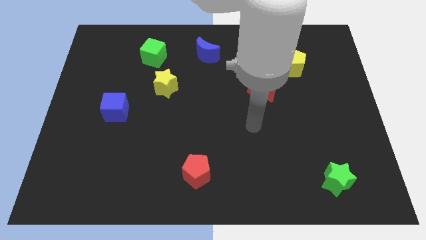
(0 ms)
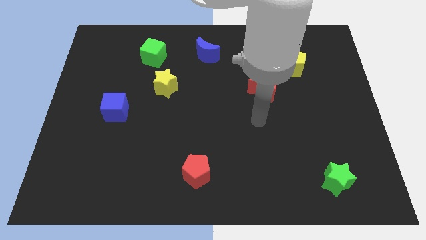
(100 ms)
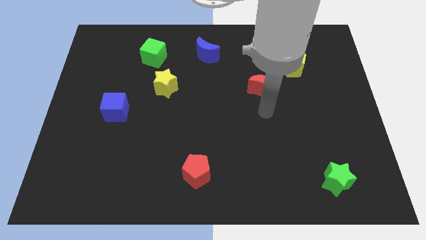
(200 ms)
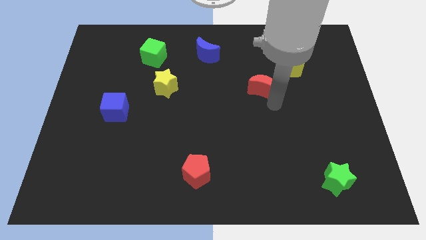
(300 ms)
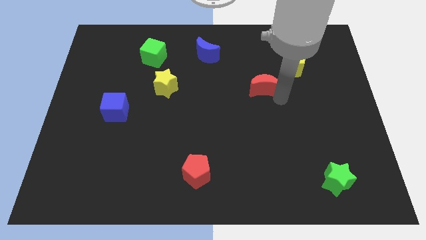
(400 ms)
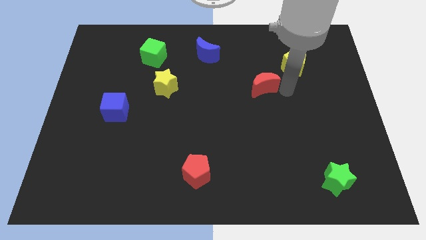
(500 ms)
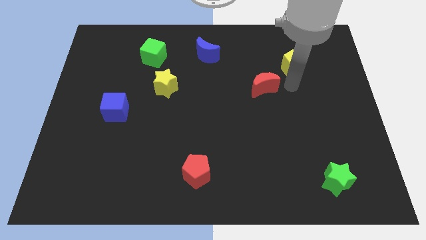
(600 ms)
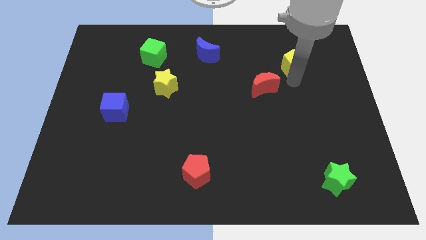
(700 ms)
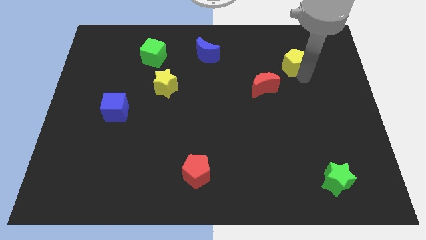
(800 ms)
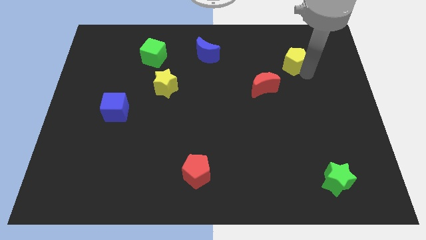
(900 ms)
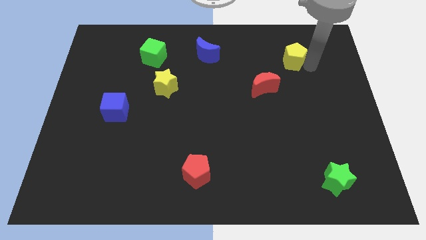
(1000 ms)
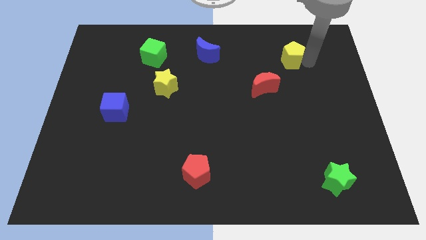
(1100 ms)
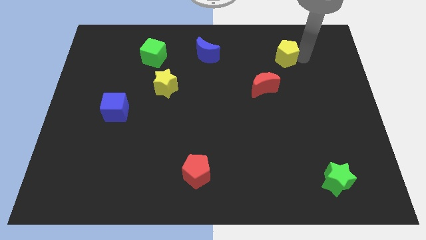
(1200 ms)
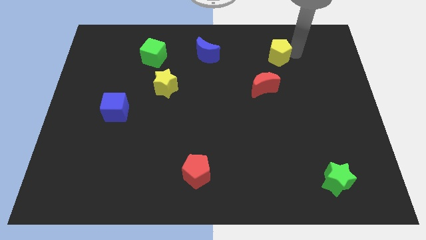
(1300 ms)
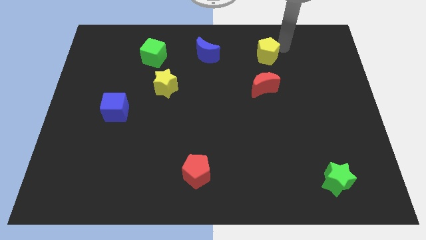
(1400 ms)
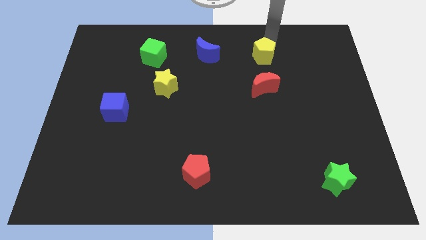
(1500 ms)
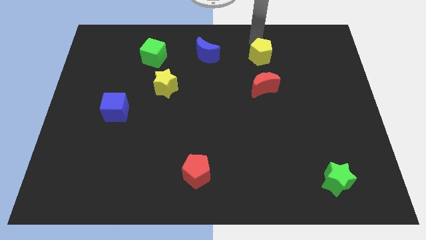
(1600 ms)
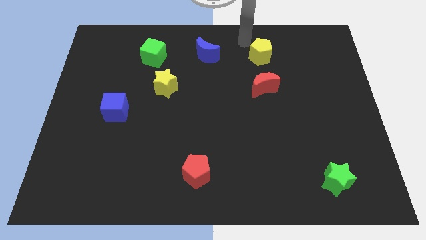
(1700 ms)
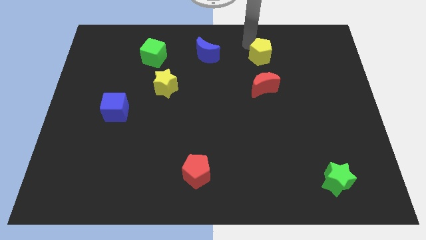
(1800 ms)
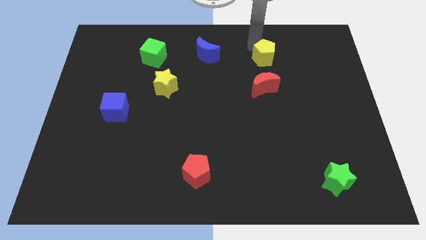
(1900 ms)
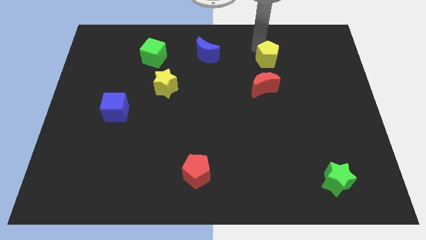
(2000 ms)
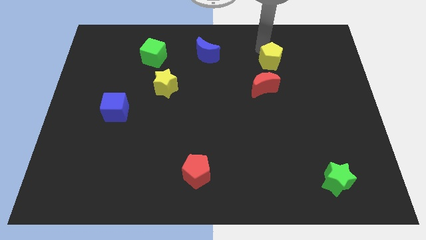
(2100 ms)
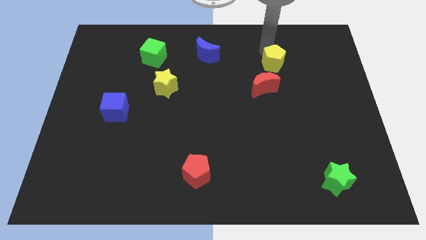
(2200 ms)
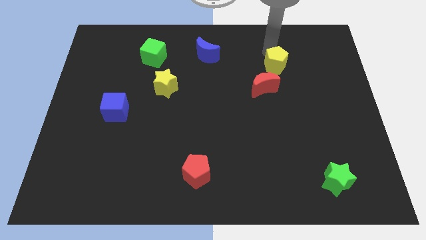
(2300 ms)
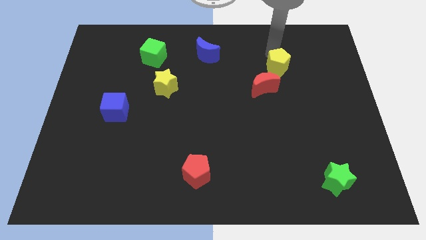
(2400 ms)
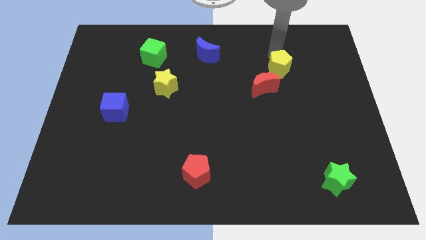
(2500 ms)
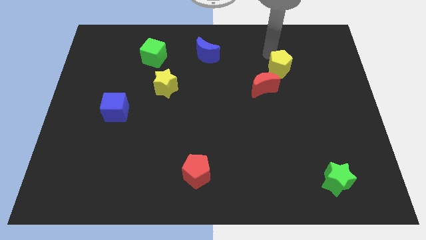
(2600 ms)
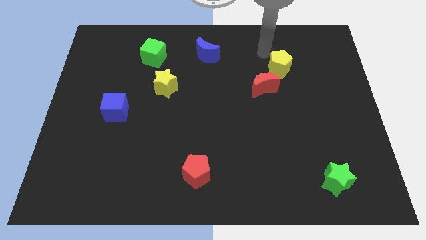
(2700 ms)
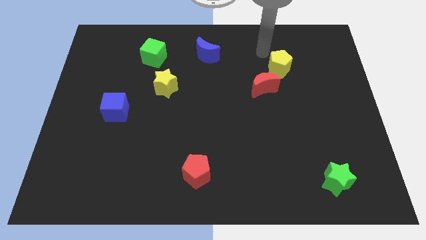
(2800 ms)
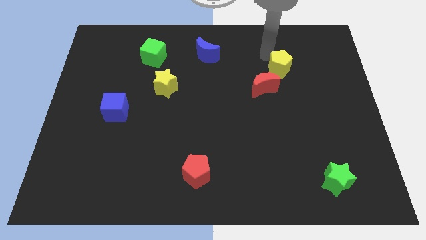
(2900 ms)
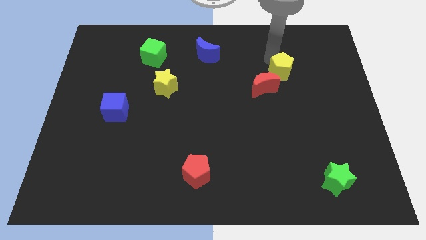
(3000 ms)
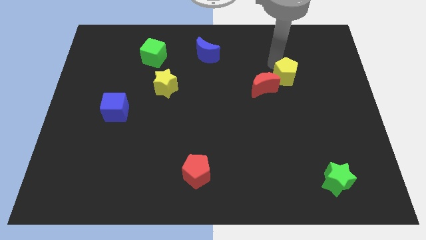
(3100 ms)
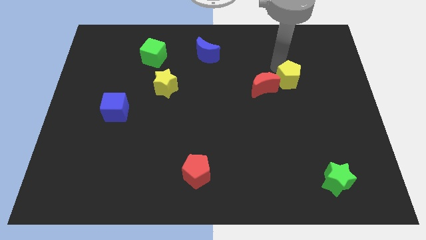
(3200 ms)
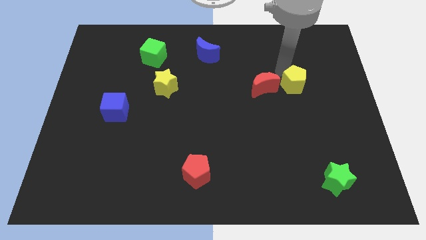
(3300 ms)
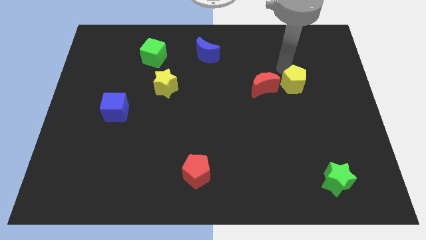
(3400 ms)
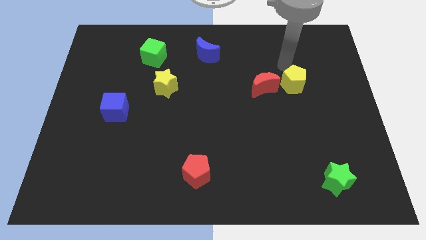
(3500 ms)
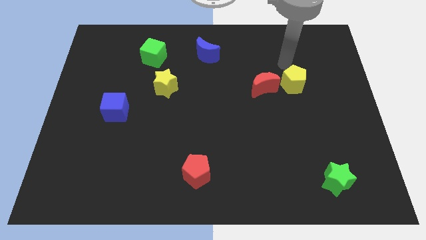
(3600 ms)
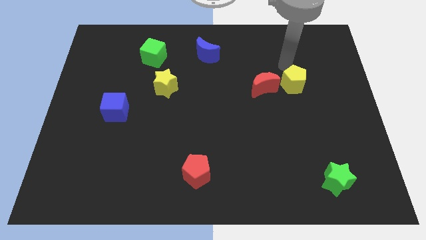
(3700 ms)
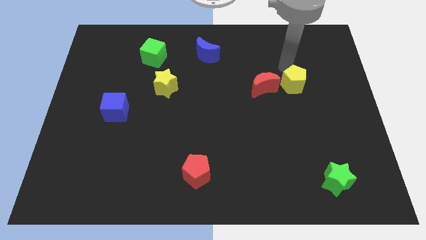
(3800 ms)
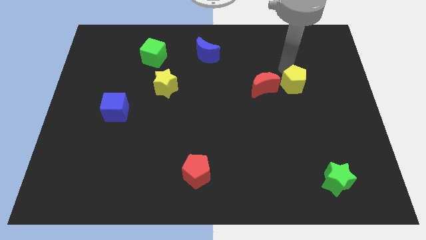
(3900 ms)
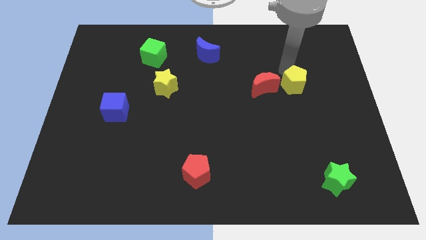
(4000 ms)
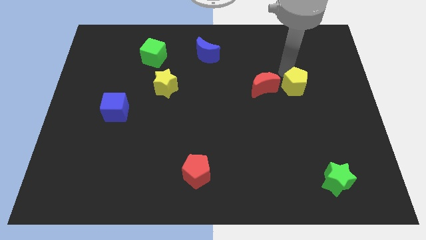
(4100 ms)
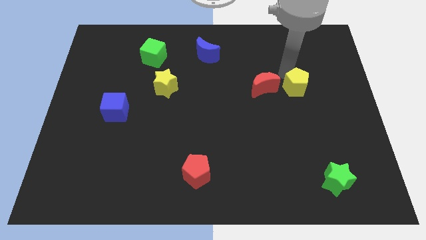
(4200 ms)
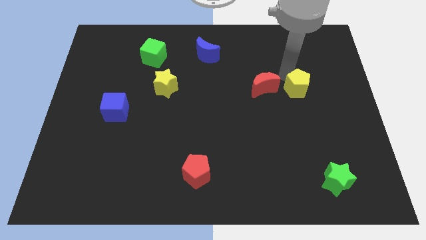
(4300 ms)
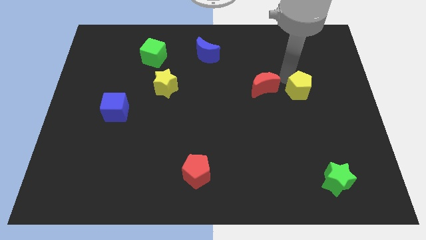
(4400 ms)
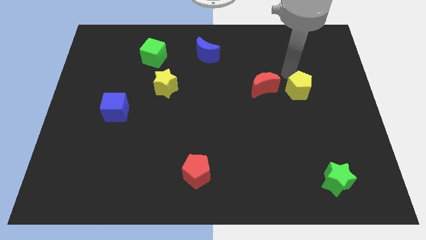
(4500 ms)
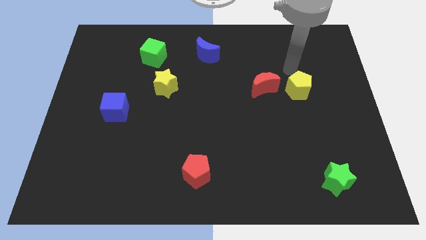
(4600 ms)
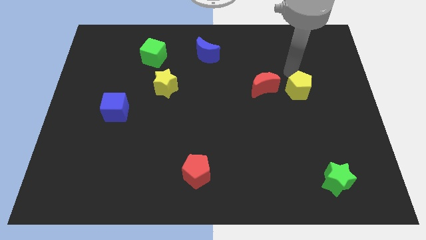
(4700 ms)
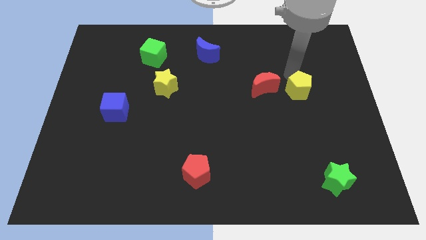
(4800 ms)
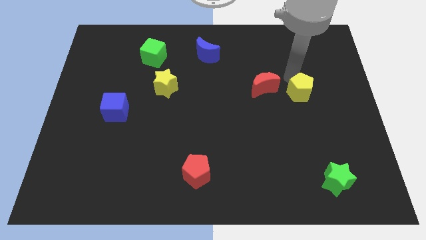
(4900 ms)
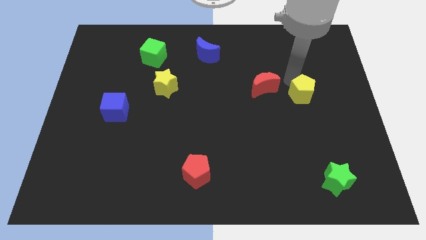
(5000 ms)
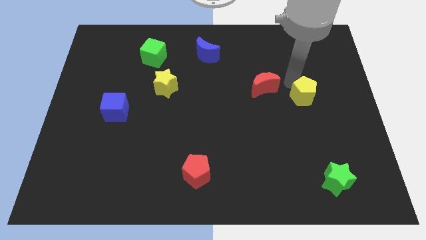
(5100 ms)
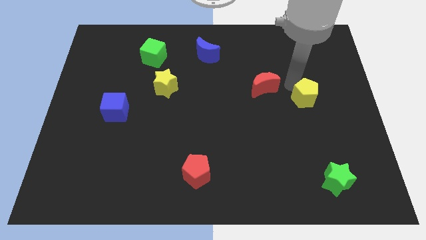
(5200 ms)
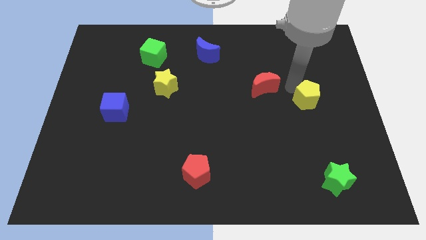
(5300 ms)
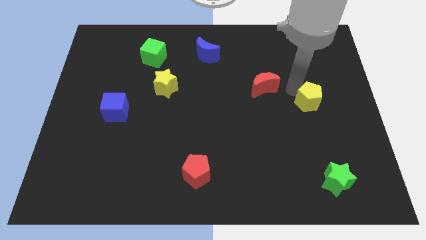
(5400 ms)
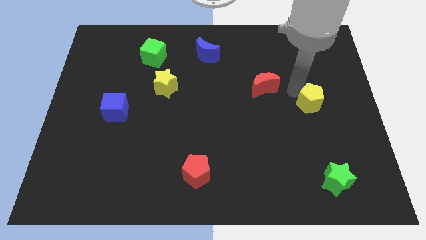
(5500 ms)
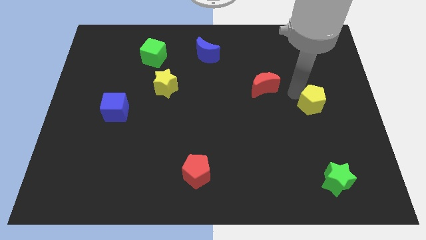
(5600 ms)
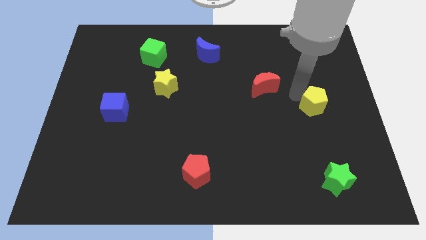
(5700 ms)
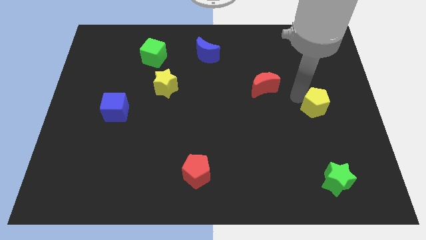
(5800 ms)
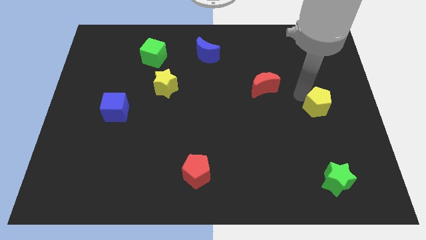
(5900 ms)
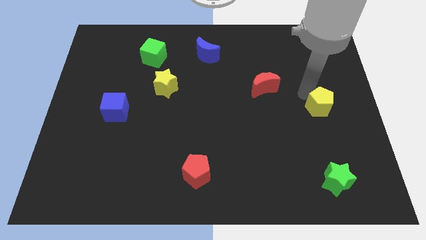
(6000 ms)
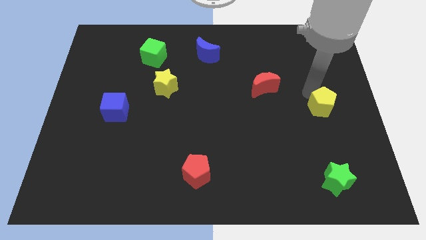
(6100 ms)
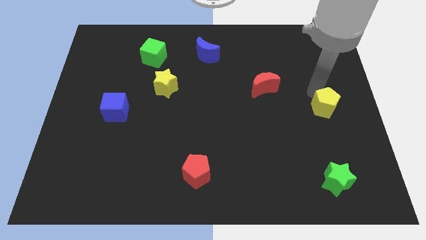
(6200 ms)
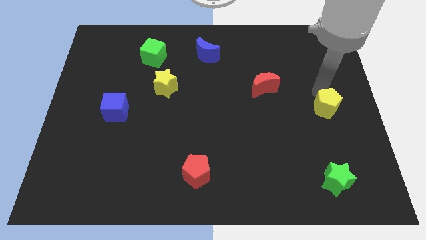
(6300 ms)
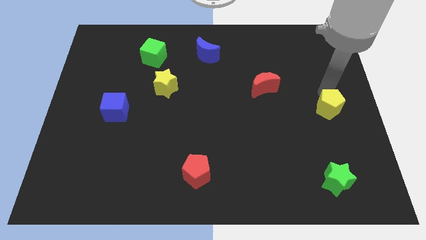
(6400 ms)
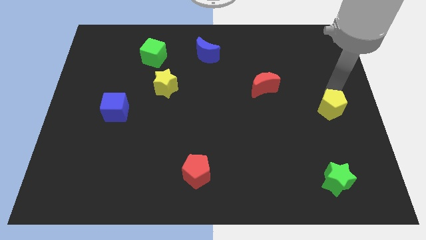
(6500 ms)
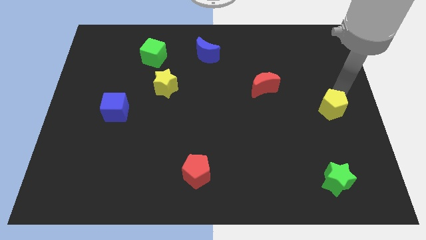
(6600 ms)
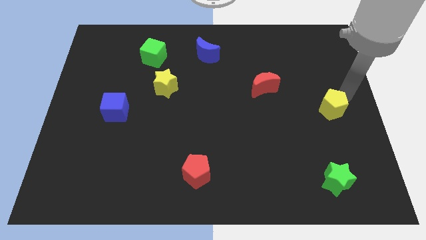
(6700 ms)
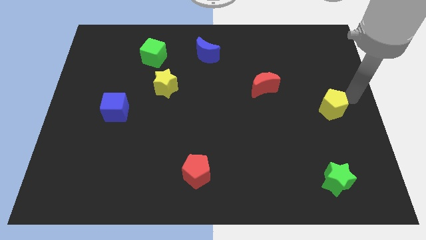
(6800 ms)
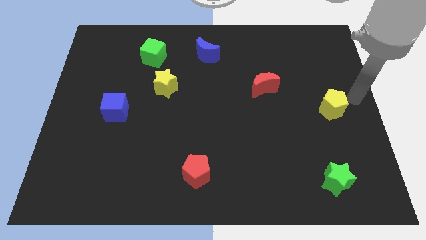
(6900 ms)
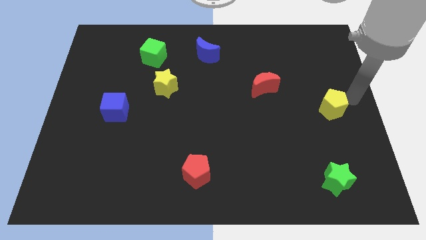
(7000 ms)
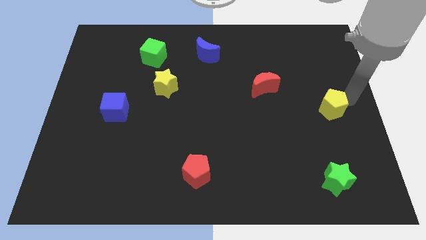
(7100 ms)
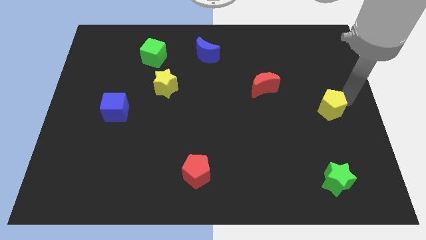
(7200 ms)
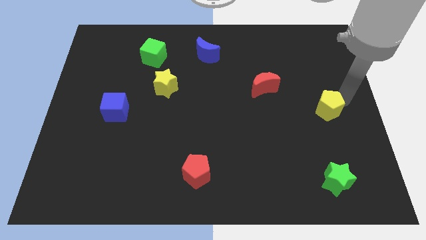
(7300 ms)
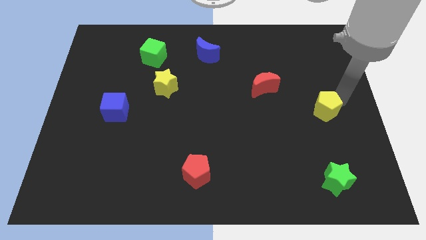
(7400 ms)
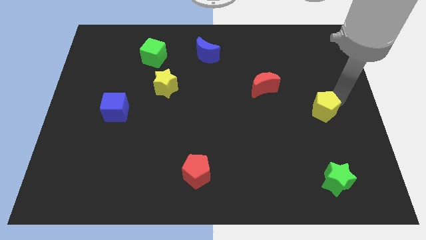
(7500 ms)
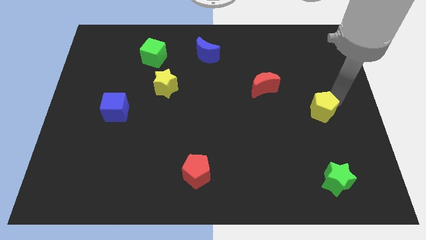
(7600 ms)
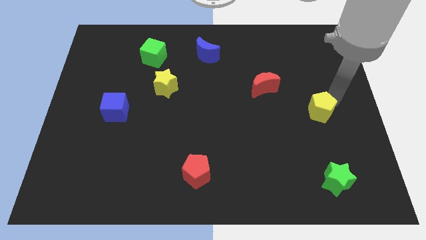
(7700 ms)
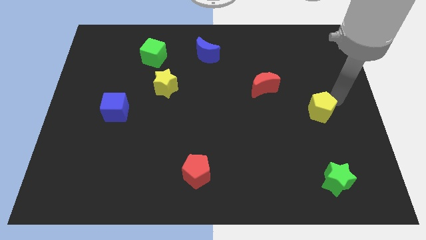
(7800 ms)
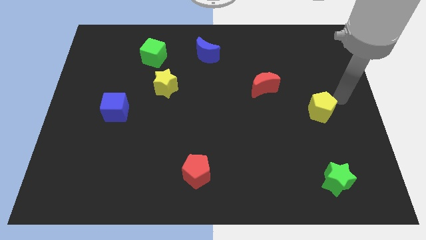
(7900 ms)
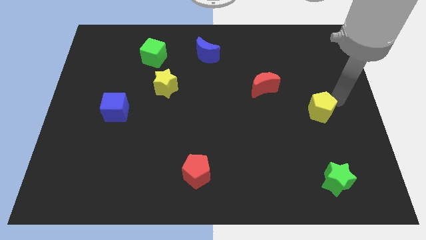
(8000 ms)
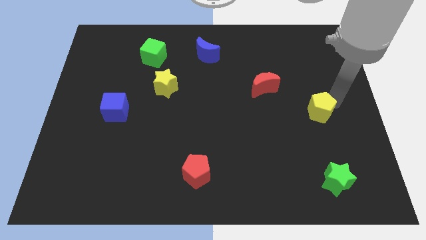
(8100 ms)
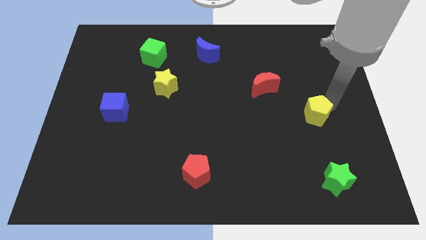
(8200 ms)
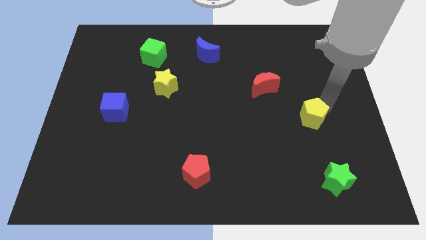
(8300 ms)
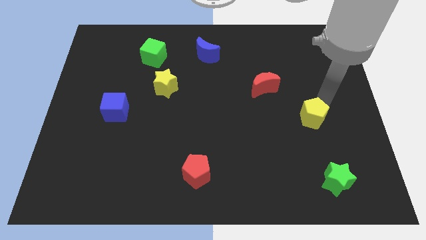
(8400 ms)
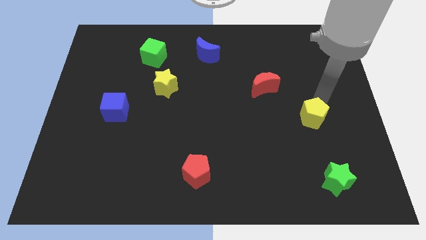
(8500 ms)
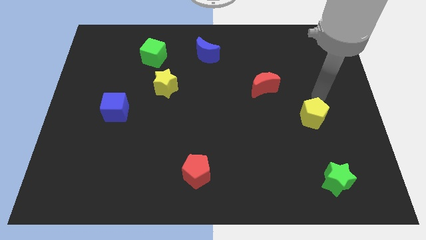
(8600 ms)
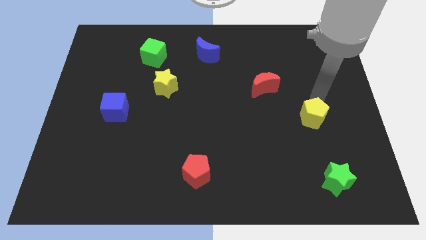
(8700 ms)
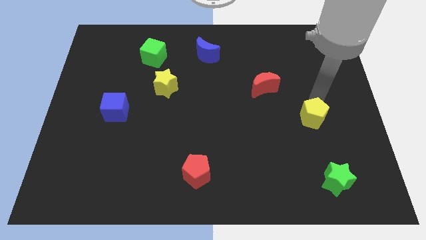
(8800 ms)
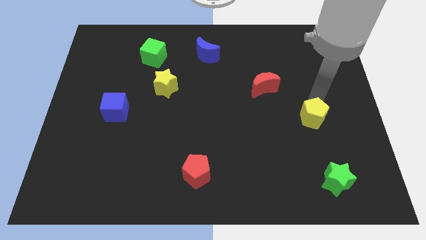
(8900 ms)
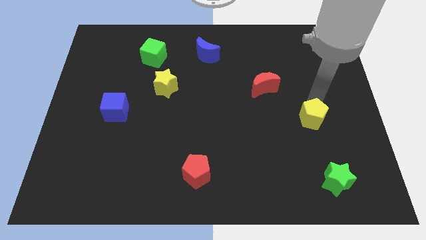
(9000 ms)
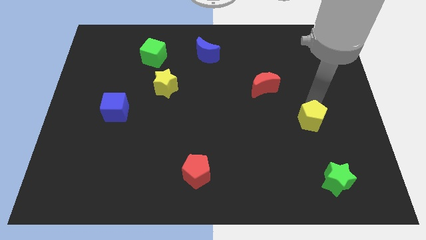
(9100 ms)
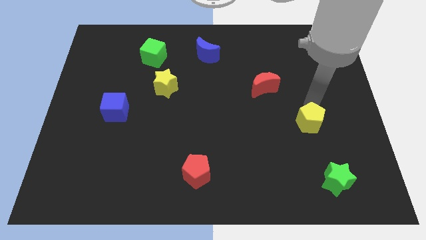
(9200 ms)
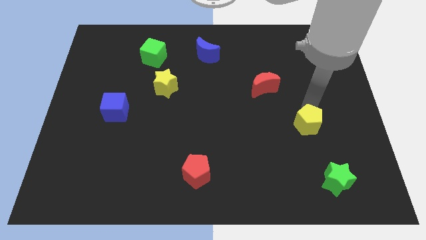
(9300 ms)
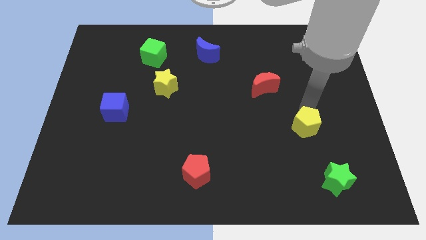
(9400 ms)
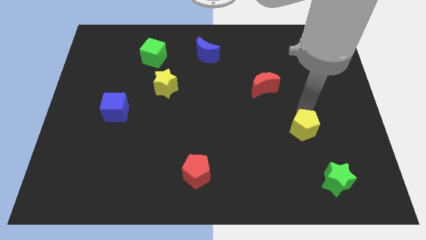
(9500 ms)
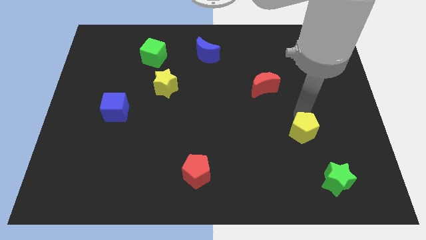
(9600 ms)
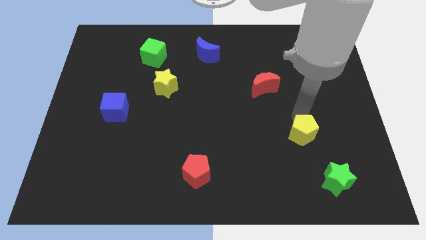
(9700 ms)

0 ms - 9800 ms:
slide the yellow pentagon downwards
